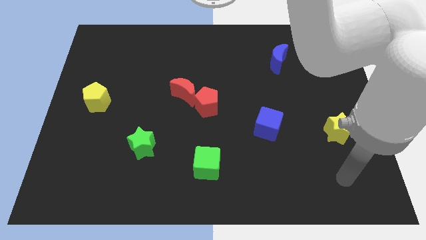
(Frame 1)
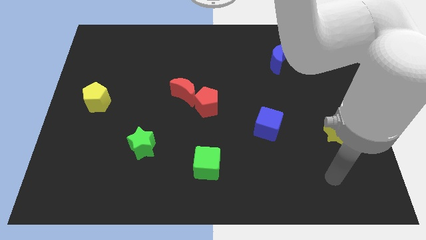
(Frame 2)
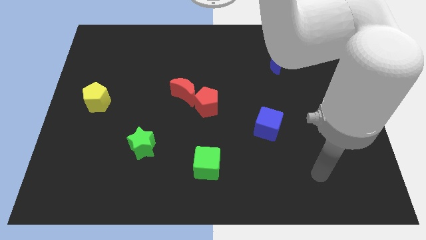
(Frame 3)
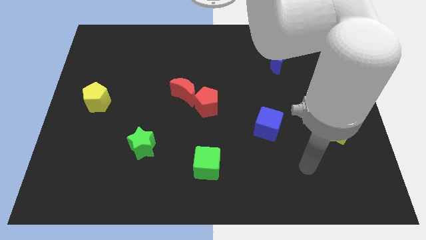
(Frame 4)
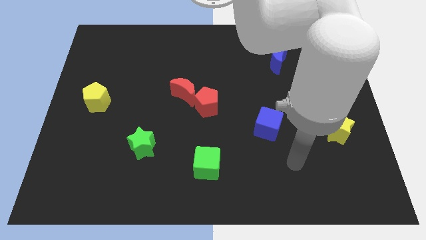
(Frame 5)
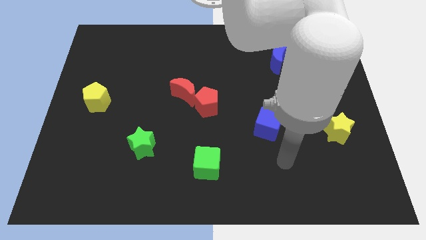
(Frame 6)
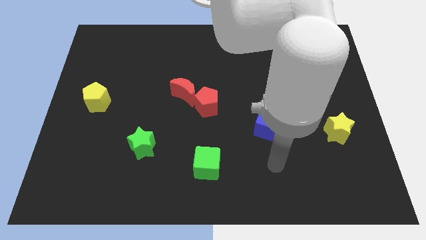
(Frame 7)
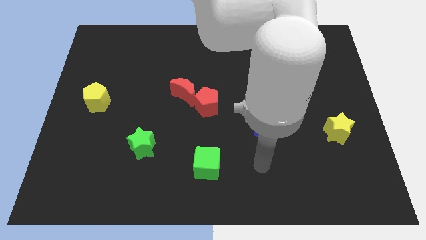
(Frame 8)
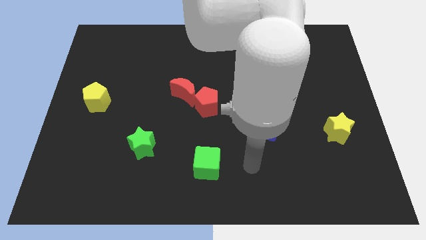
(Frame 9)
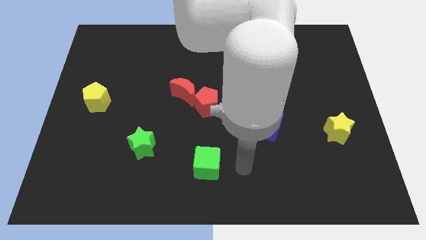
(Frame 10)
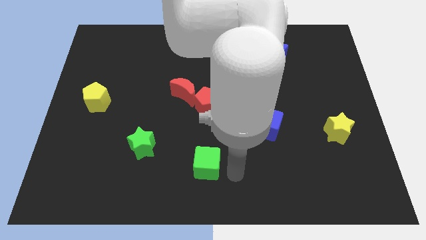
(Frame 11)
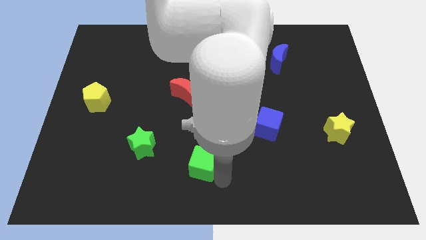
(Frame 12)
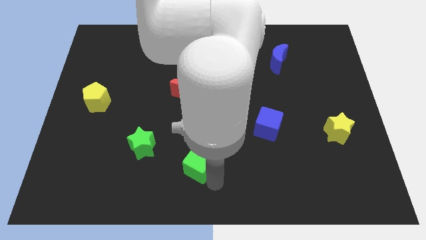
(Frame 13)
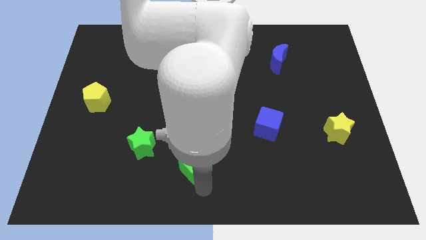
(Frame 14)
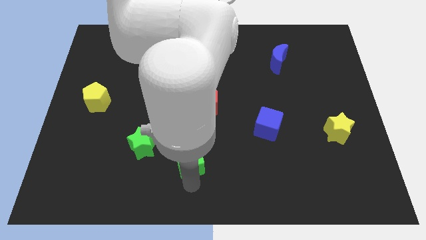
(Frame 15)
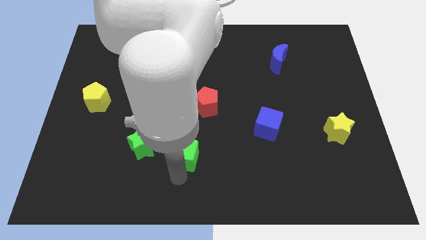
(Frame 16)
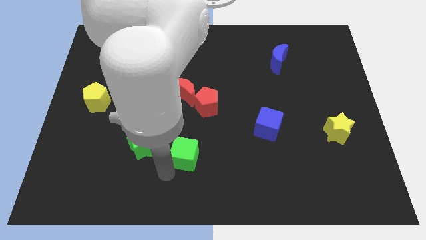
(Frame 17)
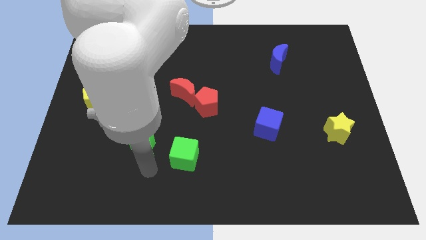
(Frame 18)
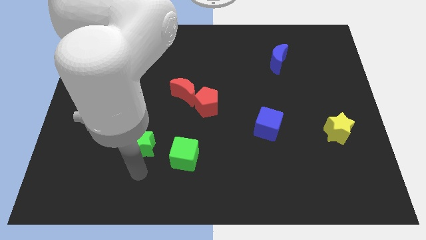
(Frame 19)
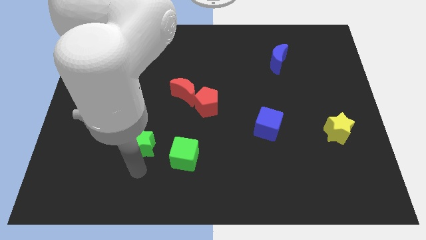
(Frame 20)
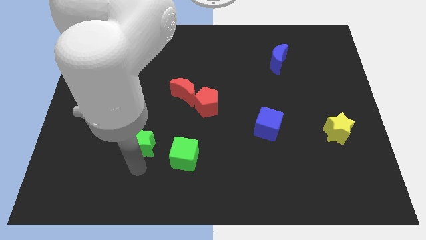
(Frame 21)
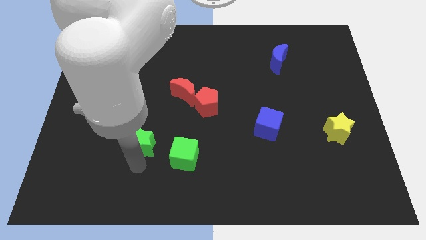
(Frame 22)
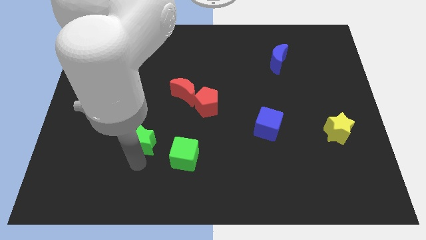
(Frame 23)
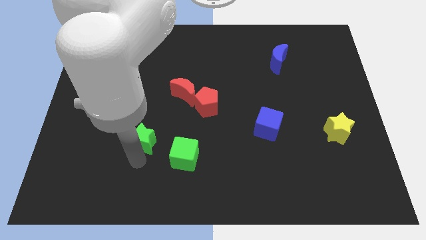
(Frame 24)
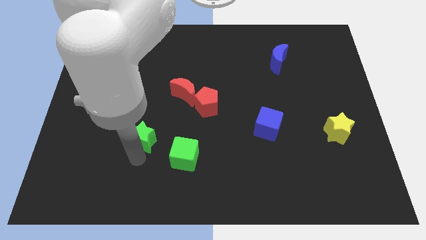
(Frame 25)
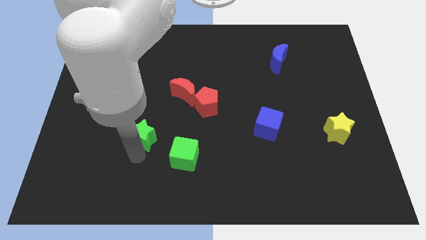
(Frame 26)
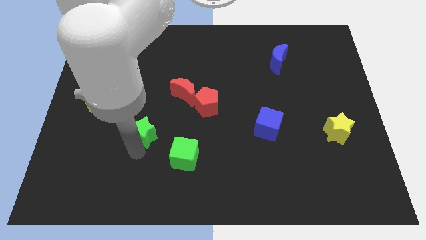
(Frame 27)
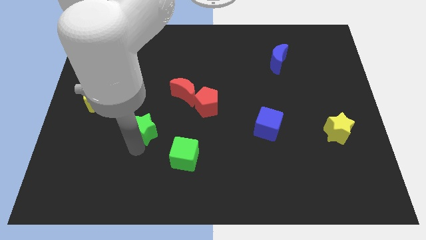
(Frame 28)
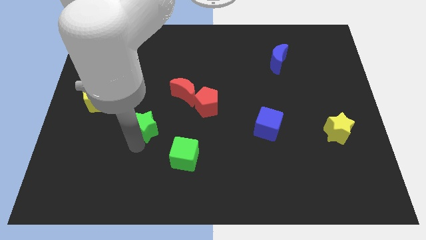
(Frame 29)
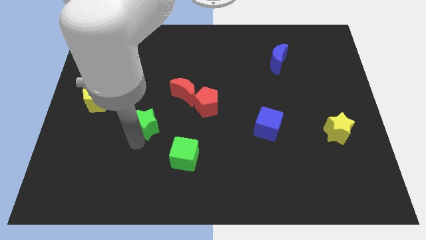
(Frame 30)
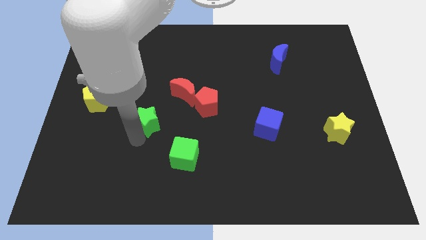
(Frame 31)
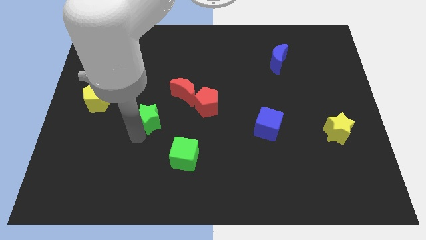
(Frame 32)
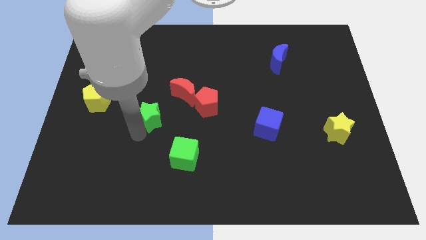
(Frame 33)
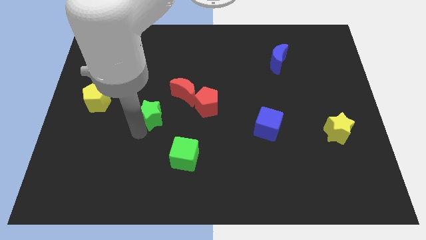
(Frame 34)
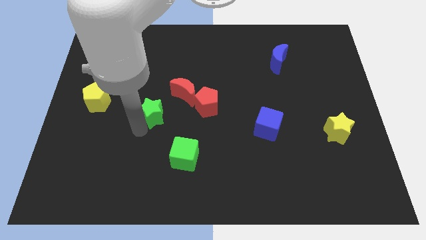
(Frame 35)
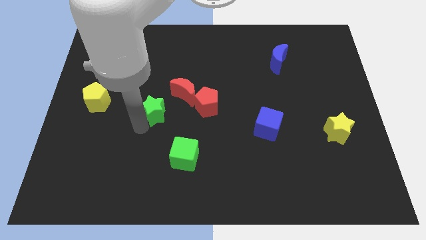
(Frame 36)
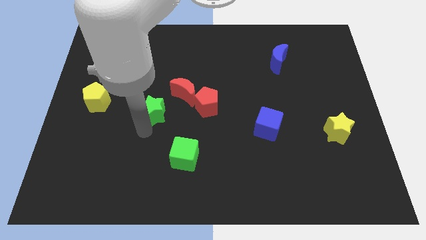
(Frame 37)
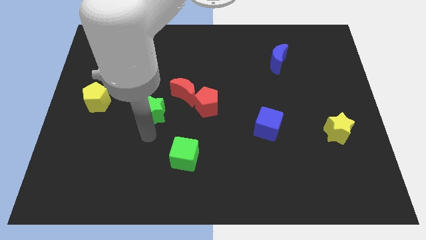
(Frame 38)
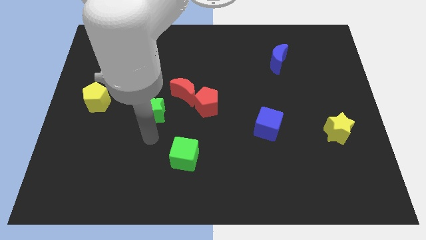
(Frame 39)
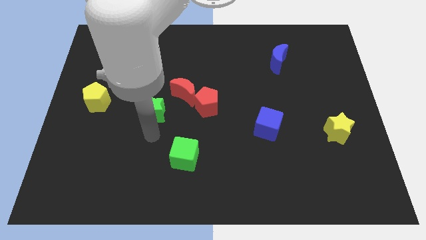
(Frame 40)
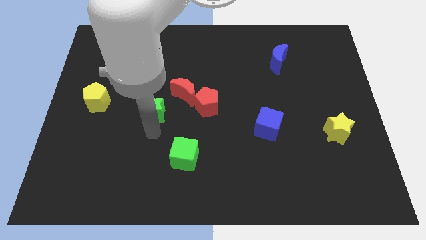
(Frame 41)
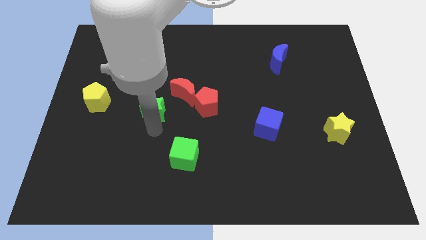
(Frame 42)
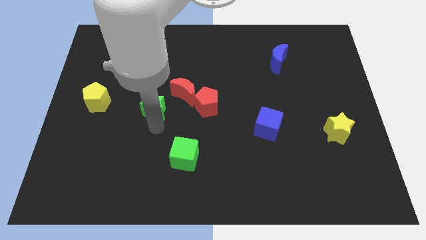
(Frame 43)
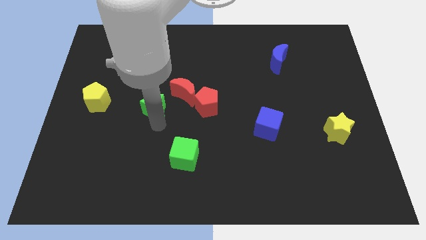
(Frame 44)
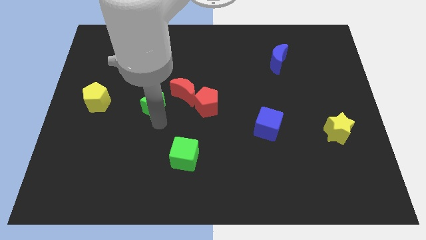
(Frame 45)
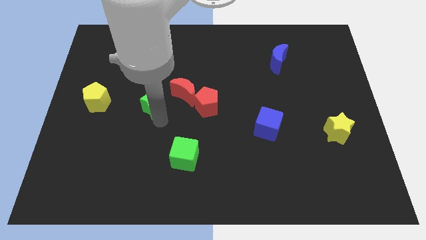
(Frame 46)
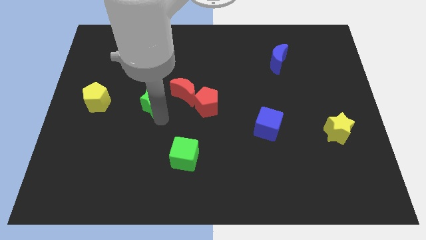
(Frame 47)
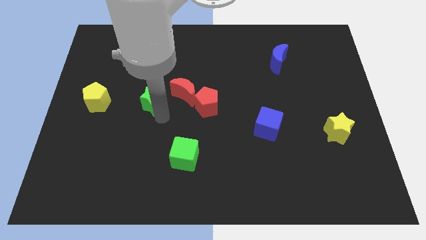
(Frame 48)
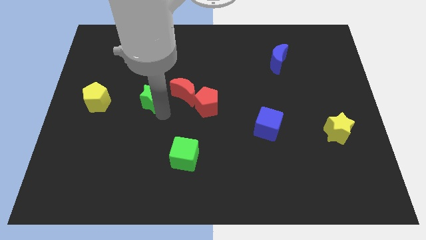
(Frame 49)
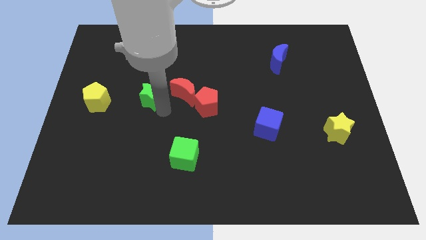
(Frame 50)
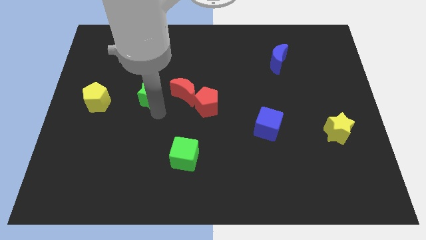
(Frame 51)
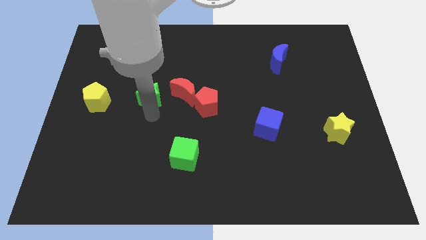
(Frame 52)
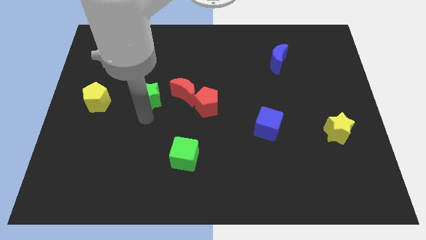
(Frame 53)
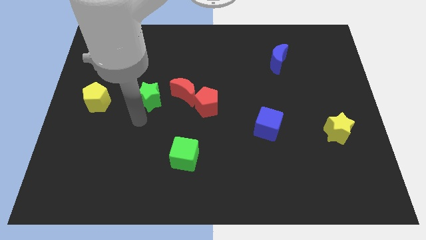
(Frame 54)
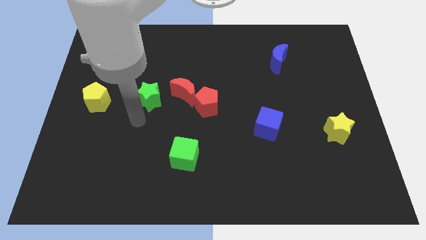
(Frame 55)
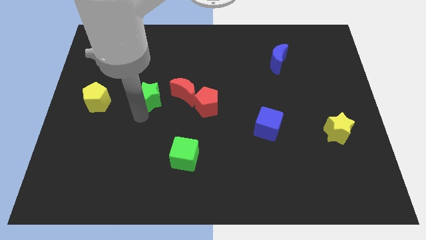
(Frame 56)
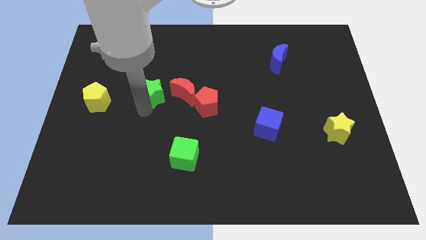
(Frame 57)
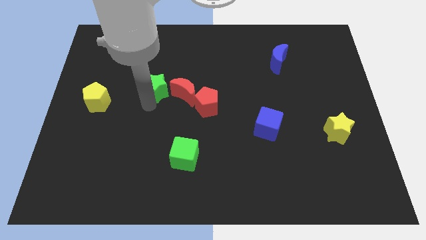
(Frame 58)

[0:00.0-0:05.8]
move the green star to the top left of the red moon

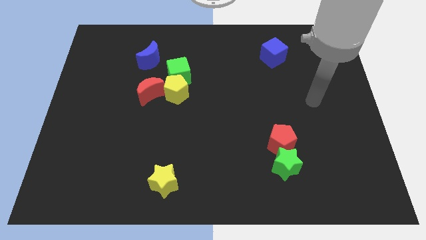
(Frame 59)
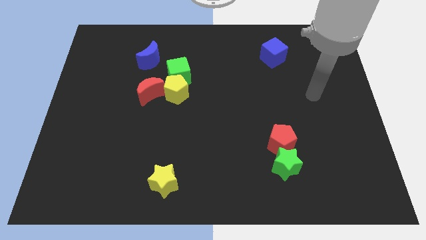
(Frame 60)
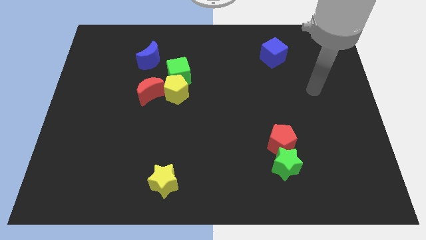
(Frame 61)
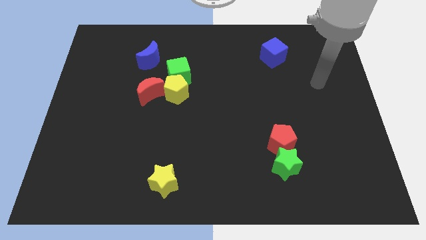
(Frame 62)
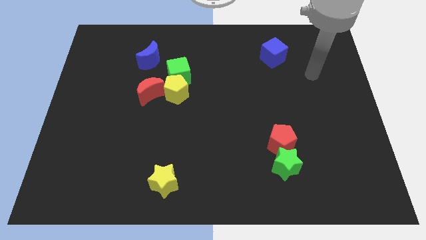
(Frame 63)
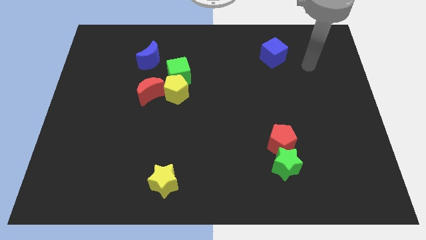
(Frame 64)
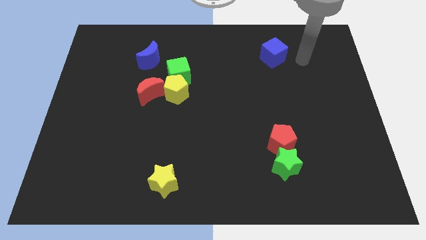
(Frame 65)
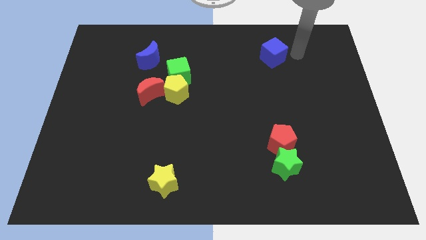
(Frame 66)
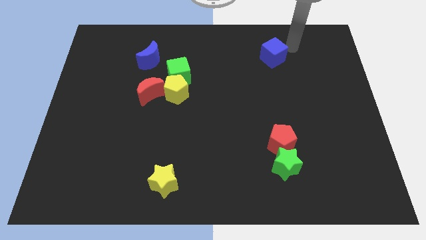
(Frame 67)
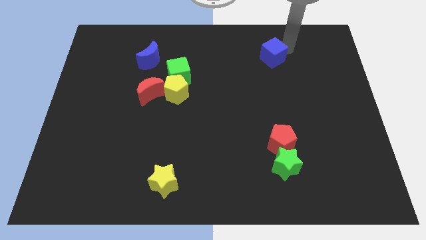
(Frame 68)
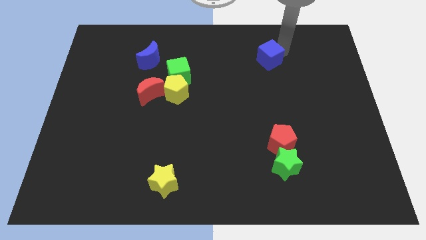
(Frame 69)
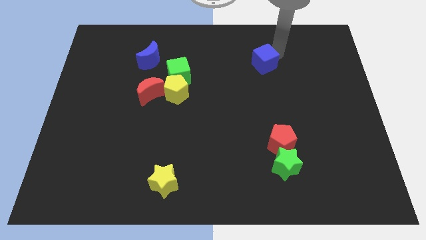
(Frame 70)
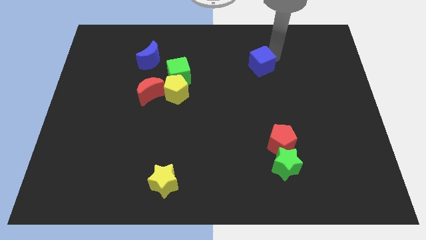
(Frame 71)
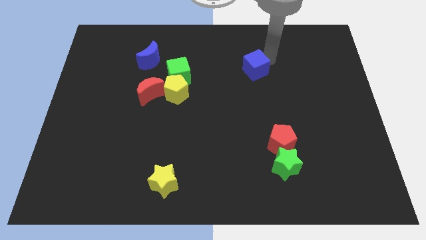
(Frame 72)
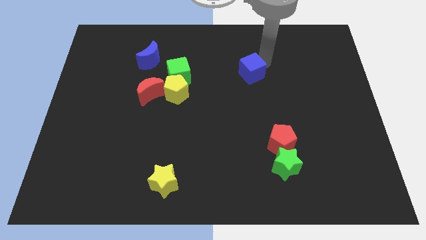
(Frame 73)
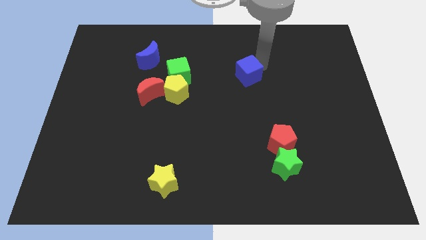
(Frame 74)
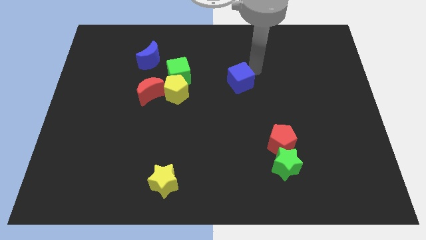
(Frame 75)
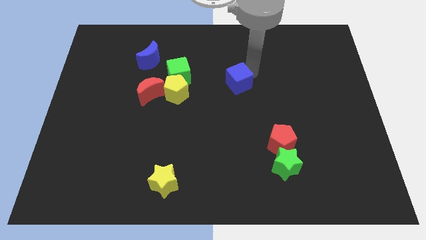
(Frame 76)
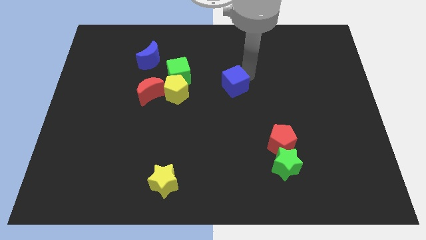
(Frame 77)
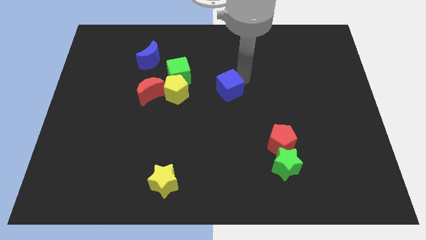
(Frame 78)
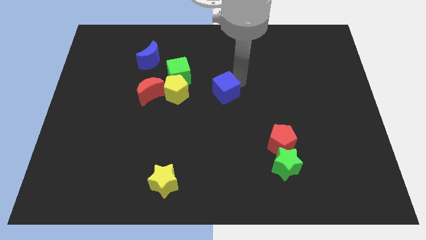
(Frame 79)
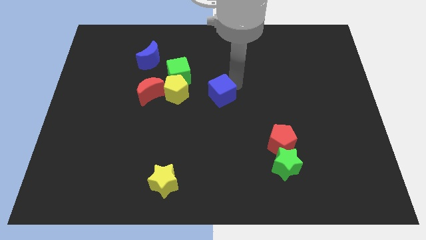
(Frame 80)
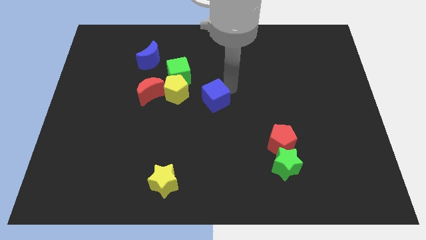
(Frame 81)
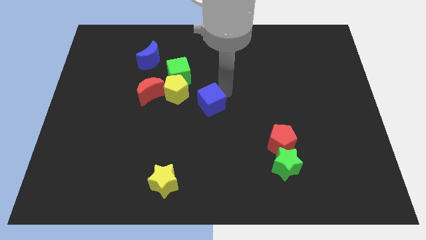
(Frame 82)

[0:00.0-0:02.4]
slide the blue cube to the bottom right side of the yellow pentagon
